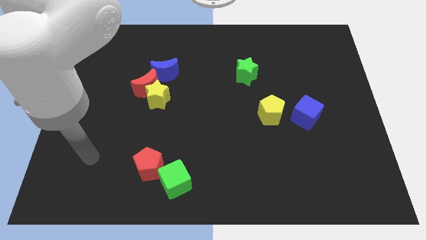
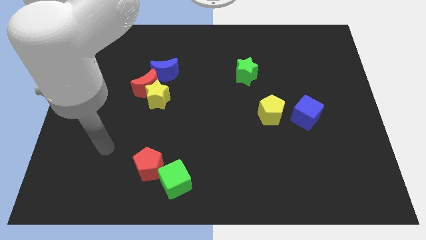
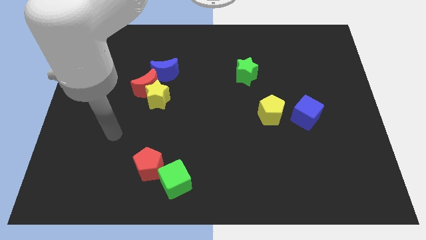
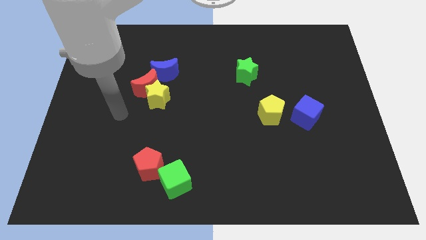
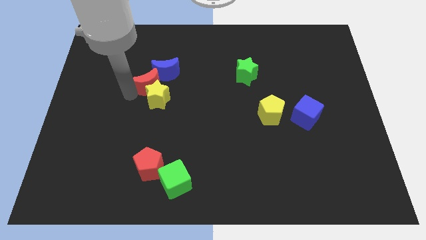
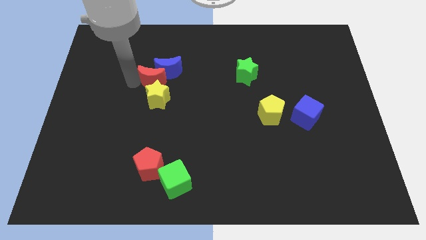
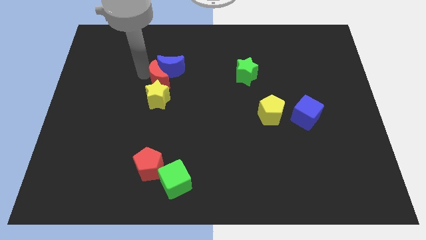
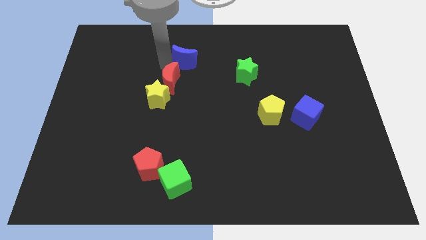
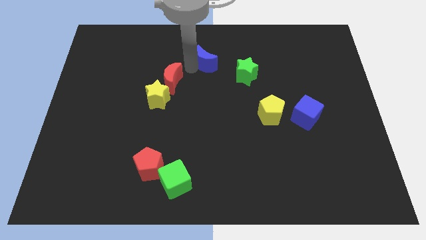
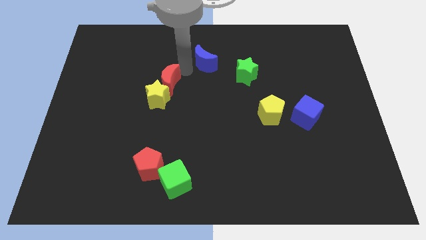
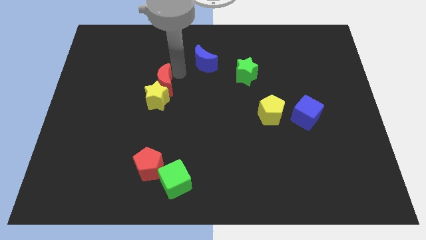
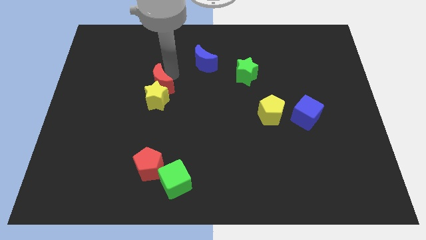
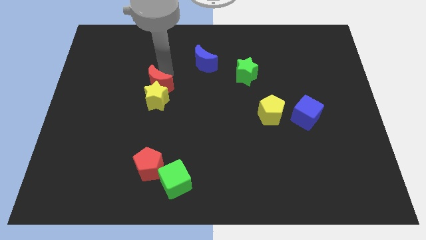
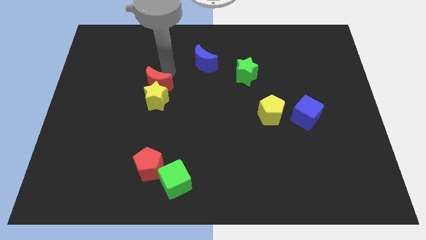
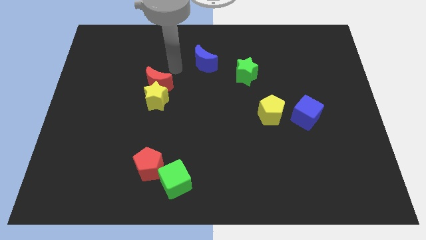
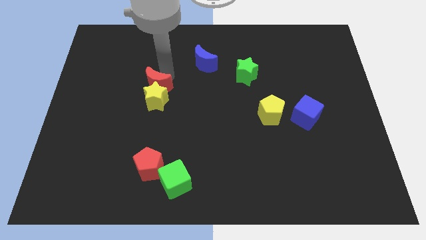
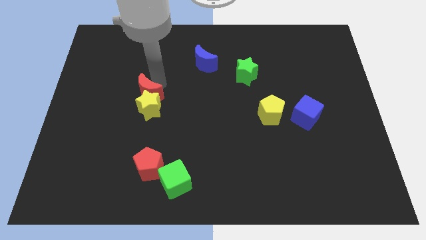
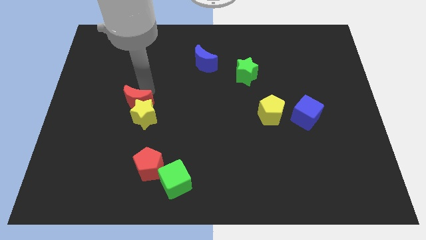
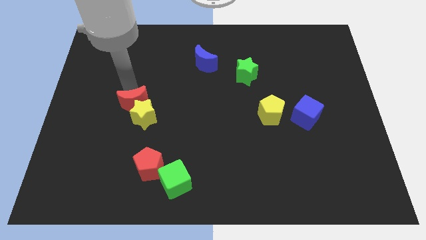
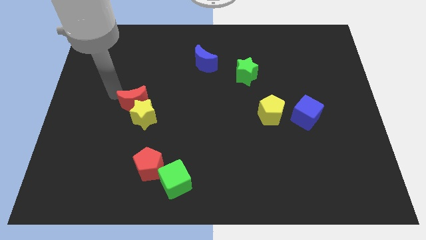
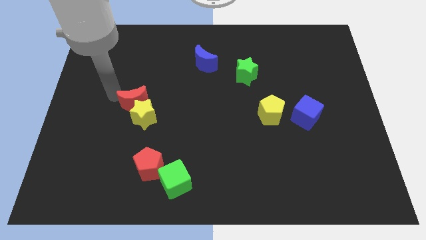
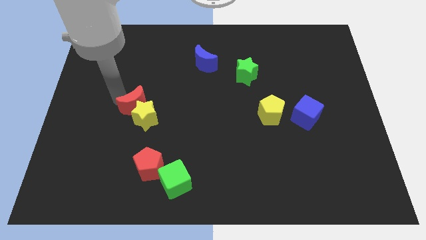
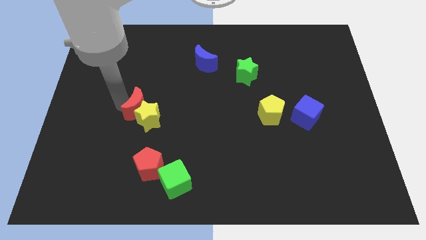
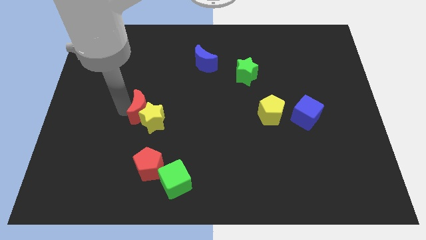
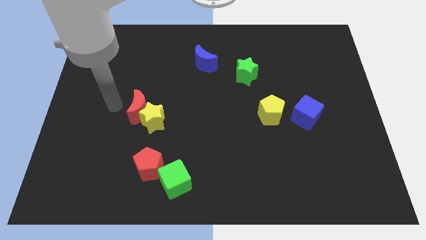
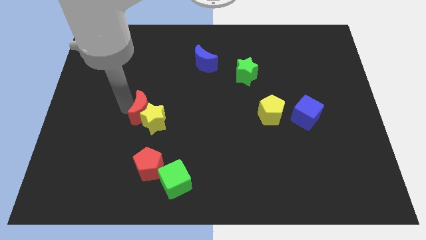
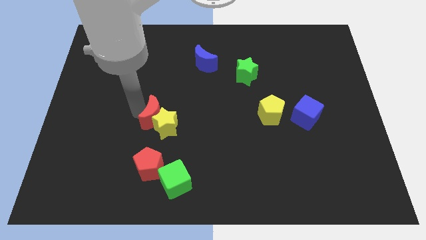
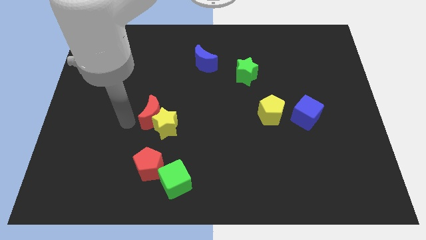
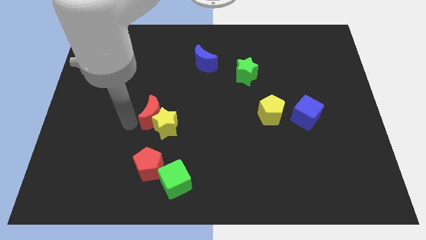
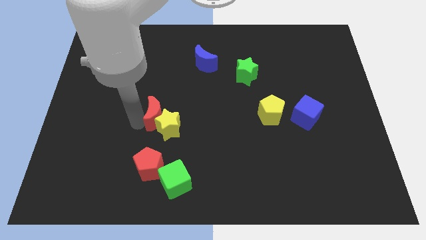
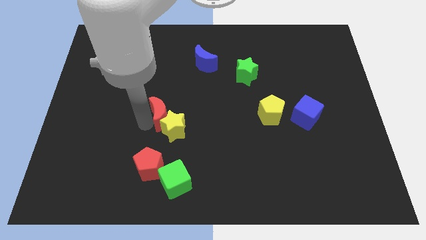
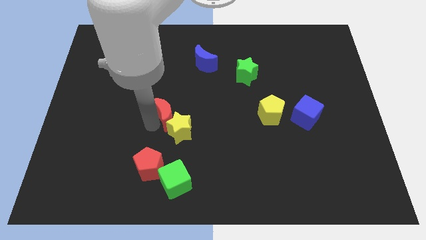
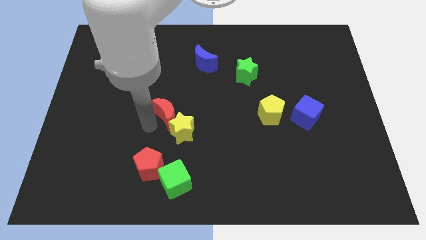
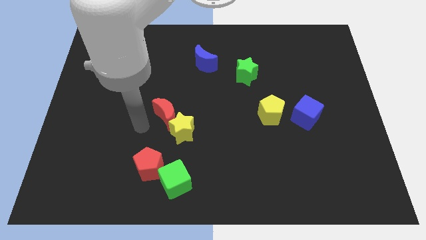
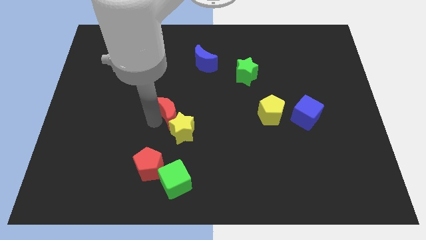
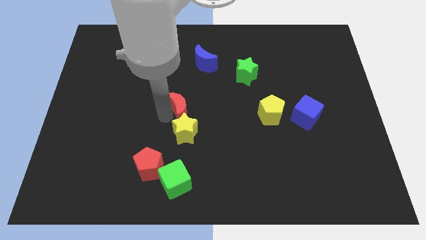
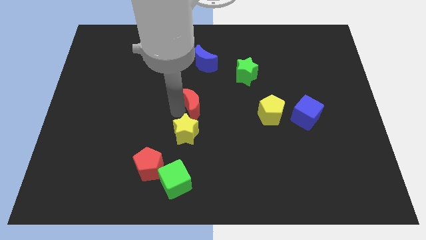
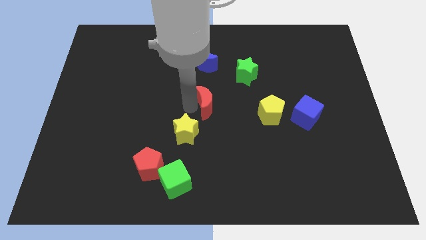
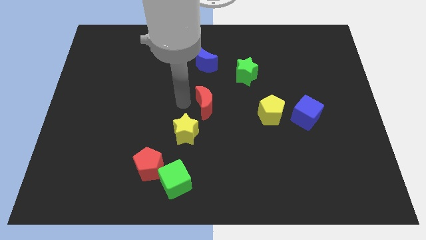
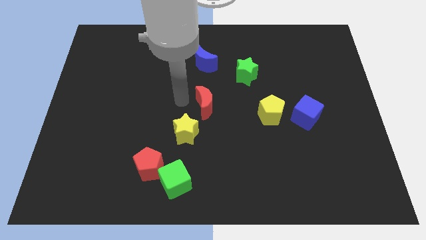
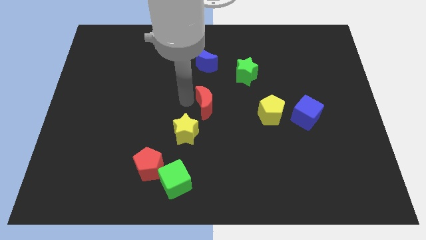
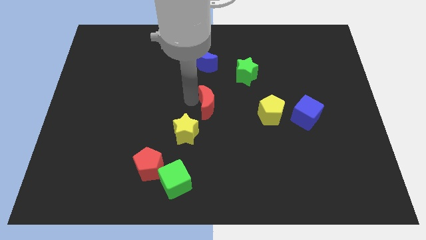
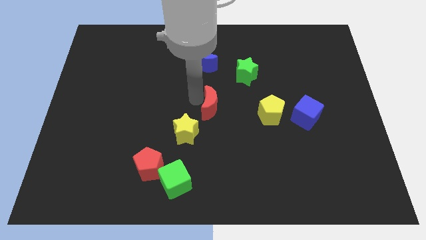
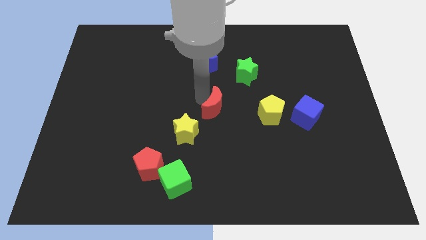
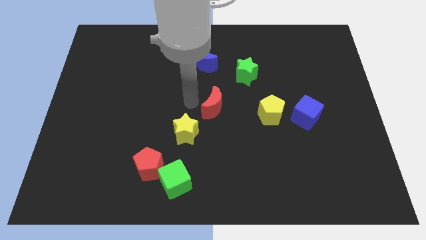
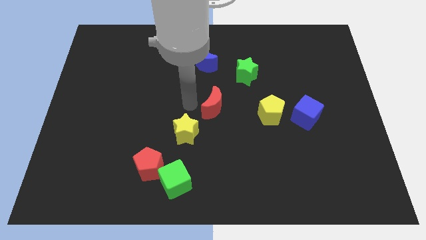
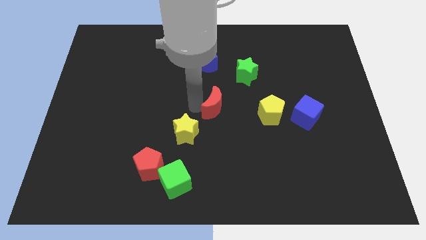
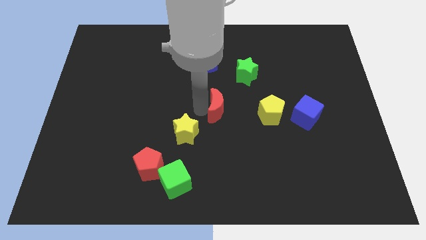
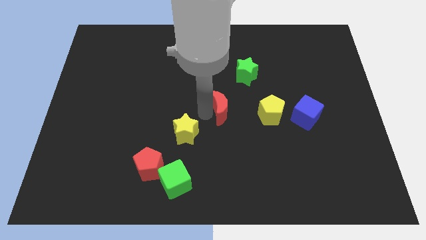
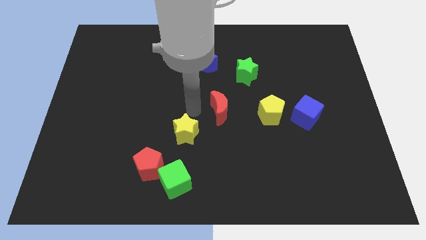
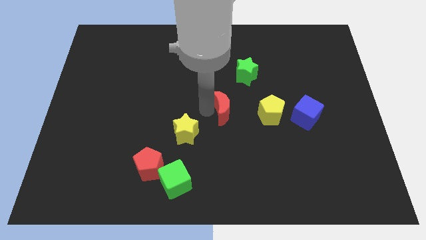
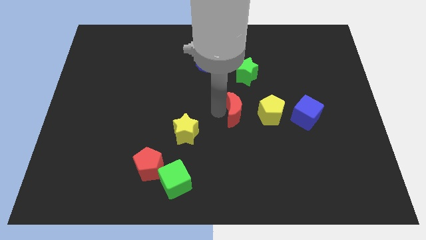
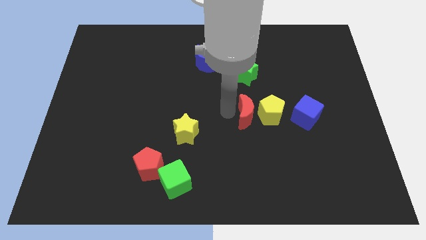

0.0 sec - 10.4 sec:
put the red moon next to the yellow pentagon

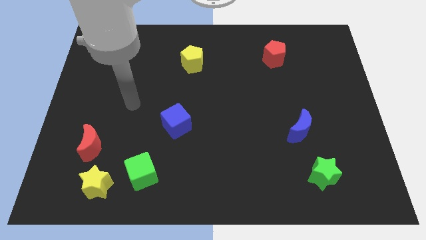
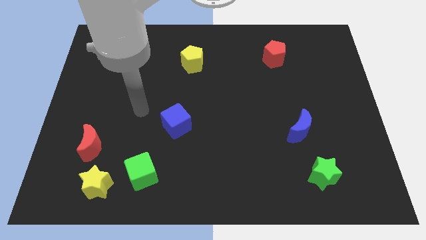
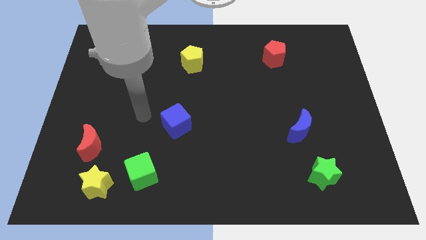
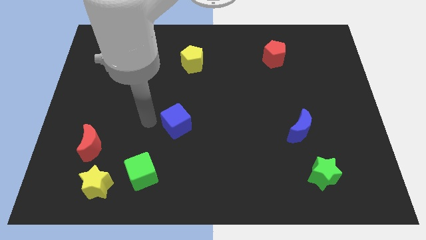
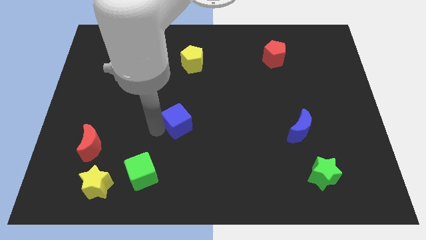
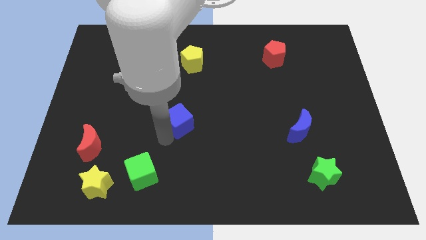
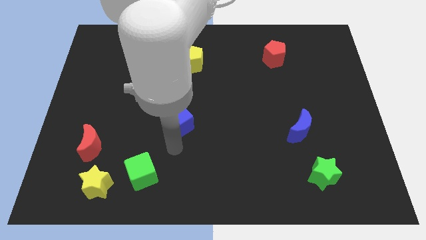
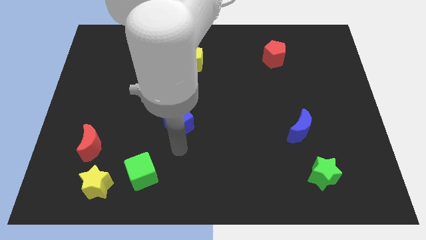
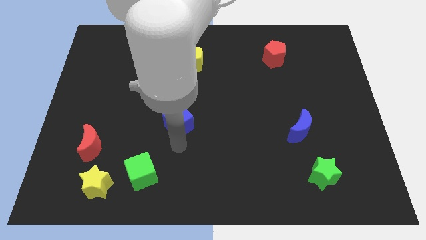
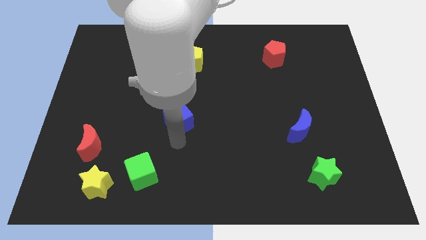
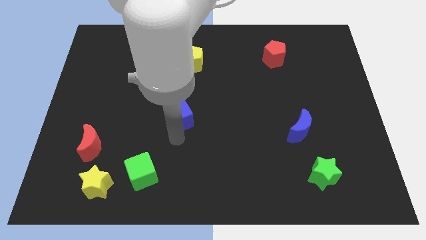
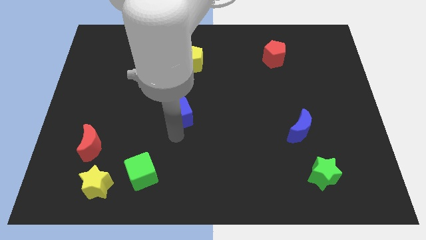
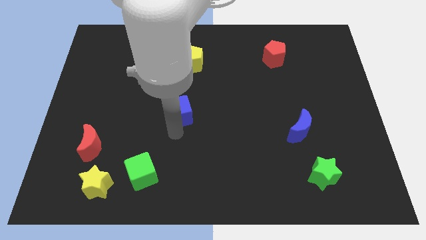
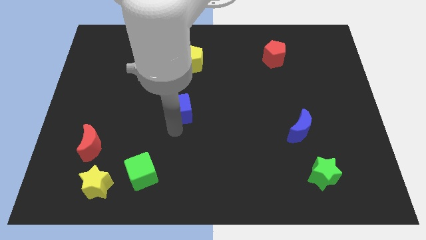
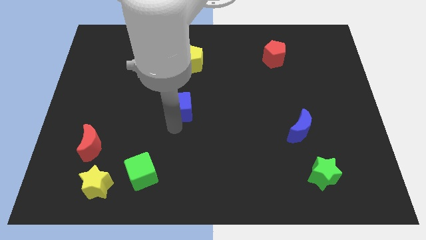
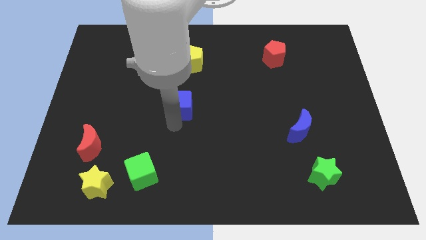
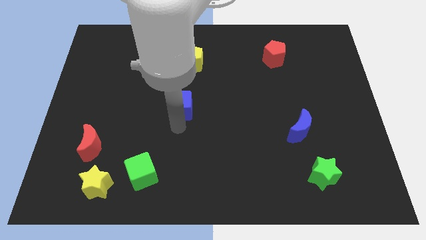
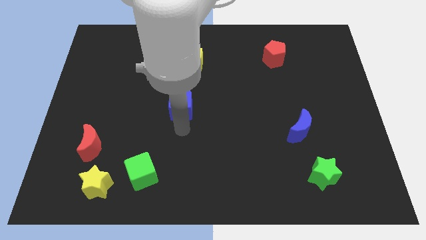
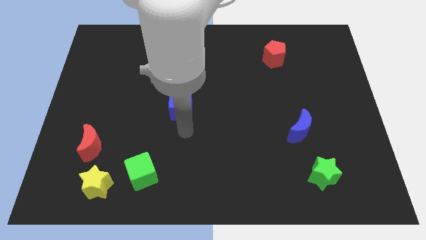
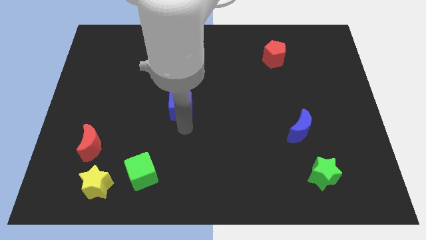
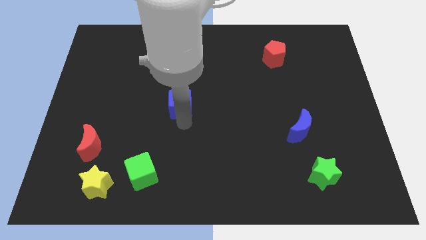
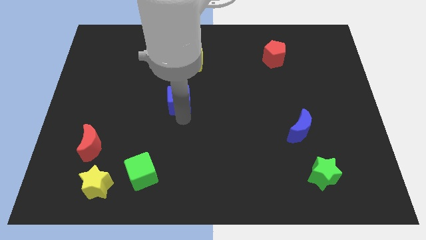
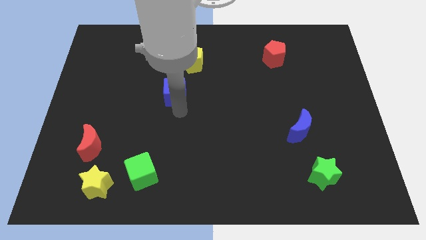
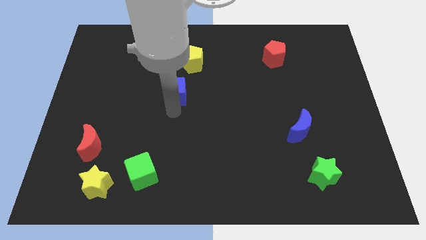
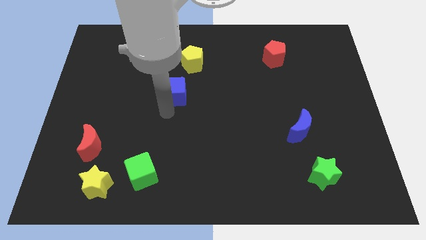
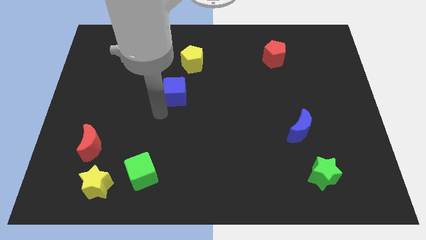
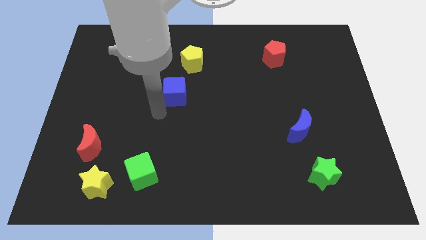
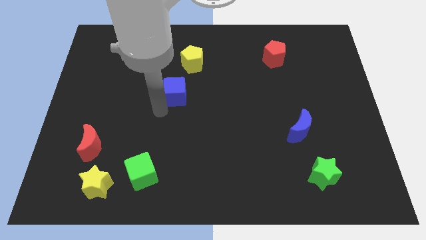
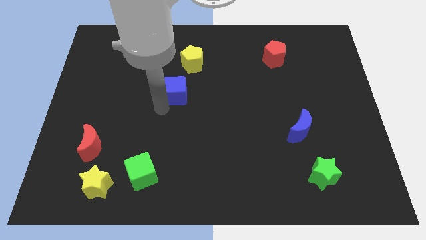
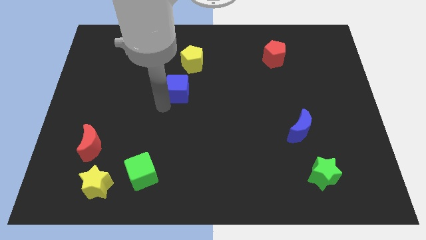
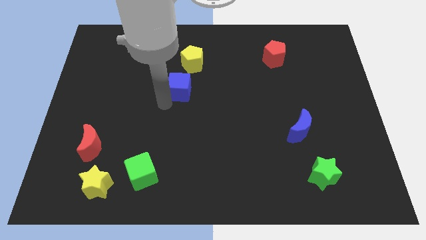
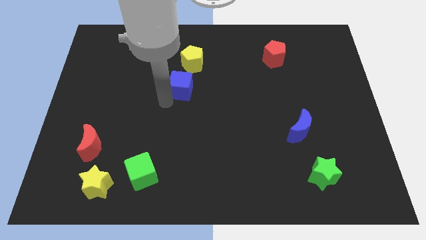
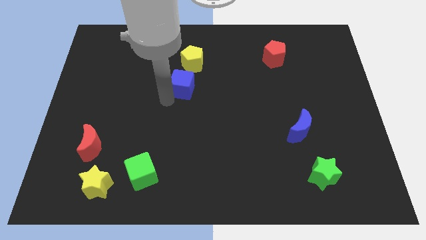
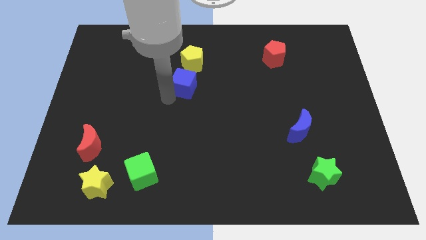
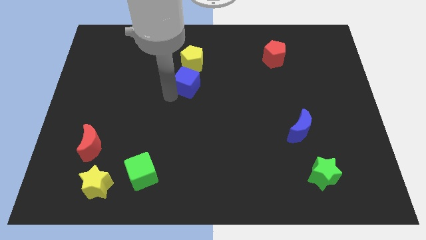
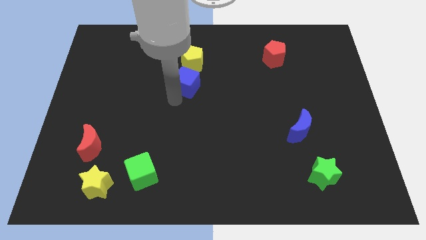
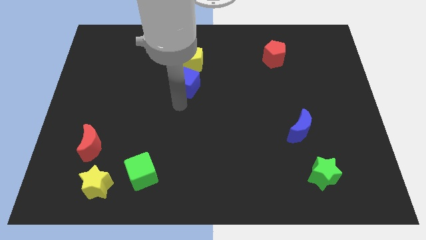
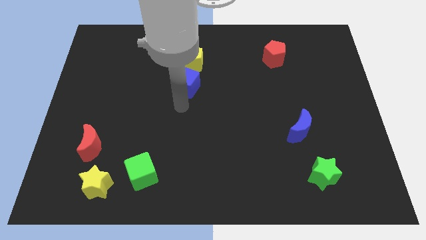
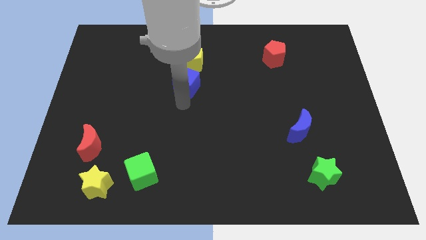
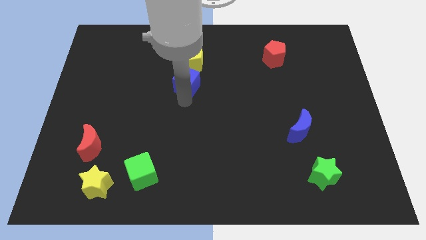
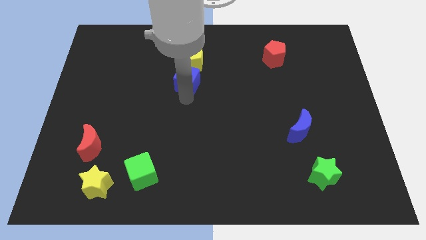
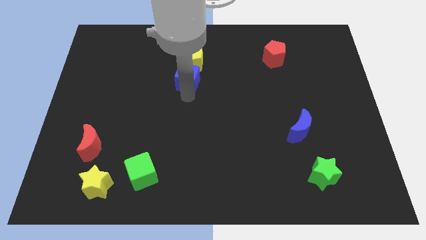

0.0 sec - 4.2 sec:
push the blue cube to the yellow pentagon
